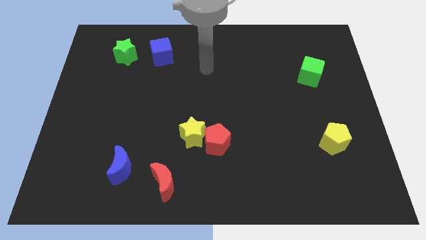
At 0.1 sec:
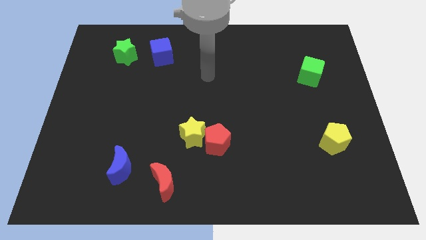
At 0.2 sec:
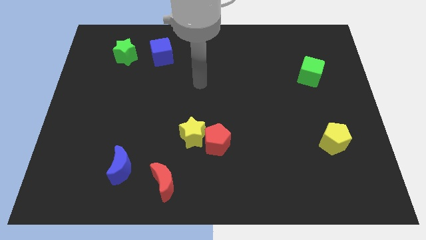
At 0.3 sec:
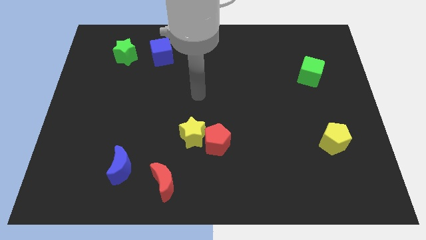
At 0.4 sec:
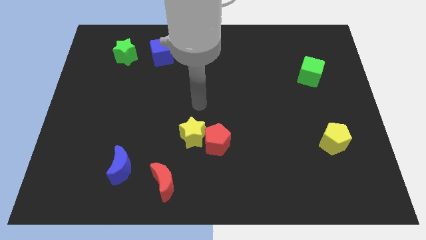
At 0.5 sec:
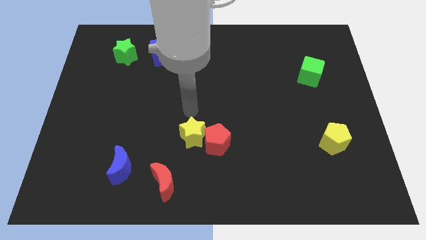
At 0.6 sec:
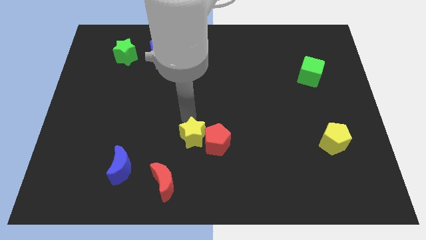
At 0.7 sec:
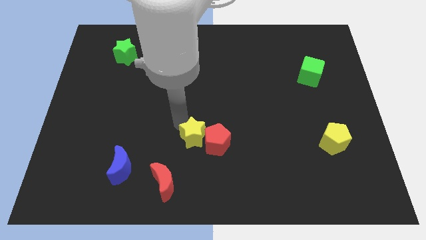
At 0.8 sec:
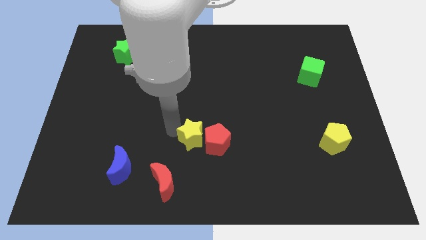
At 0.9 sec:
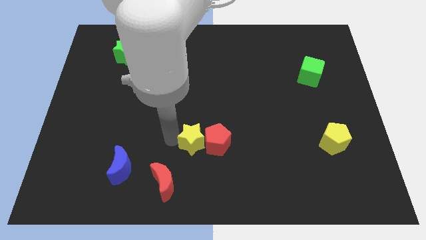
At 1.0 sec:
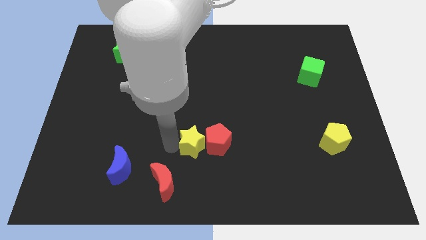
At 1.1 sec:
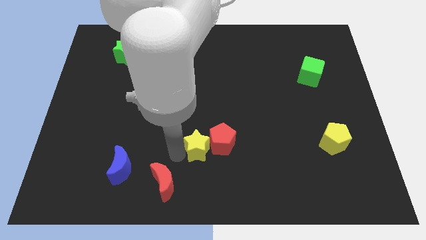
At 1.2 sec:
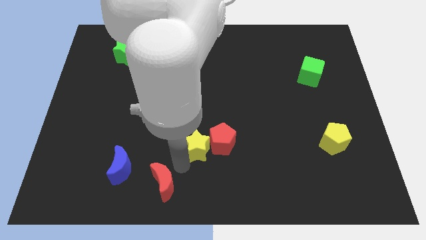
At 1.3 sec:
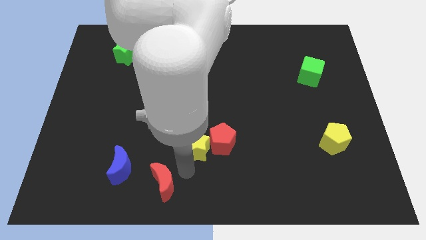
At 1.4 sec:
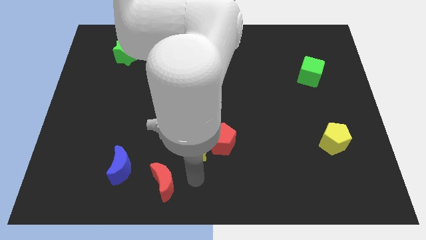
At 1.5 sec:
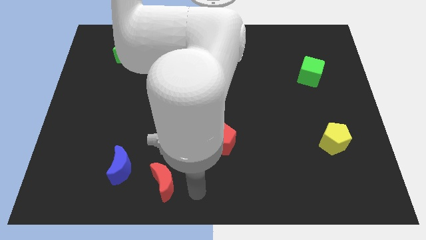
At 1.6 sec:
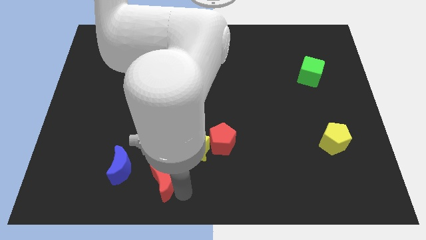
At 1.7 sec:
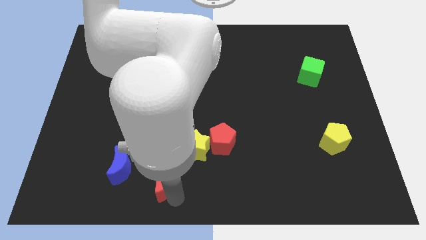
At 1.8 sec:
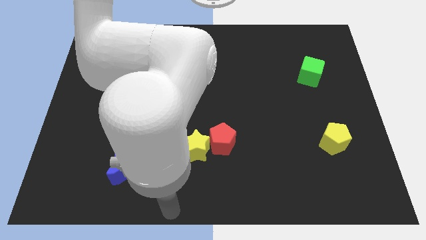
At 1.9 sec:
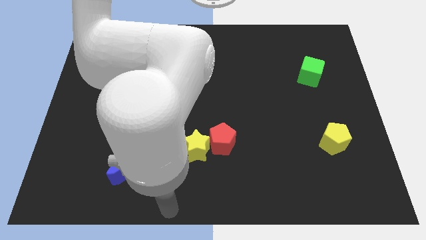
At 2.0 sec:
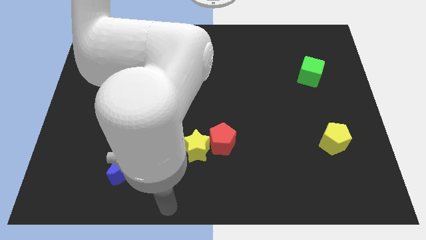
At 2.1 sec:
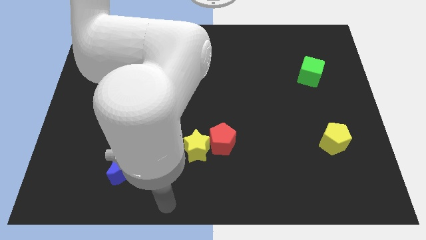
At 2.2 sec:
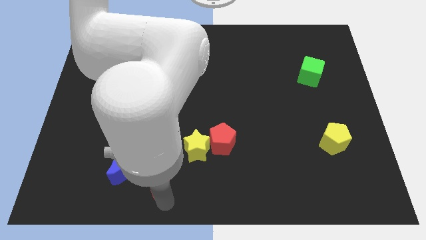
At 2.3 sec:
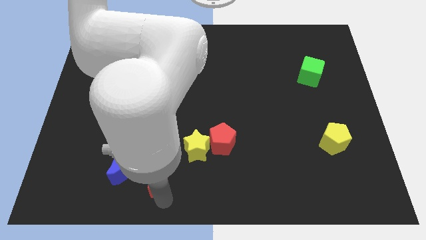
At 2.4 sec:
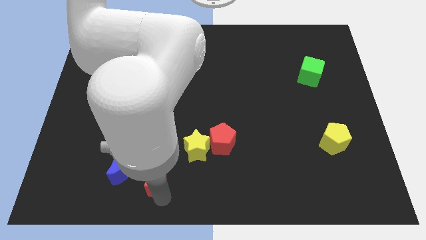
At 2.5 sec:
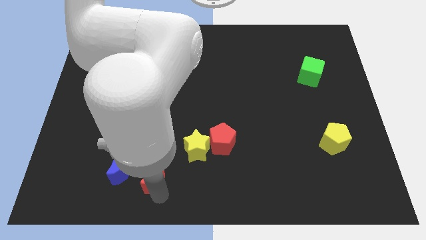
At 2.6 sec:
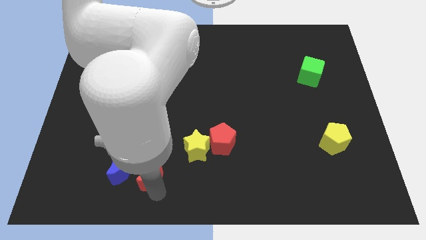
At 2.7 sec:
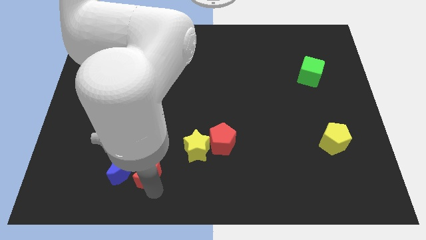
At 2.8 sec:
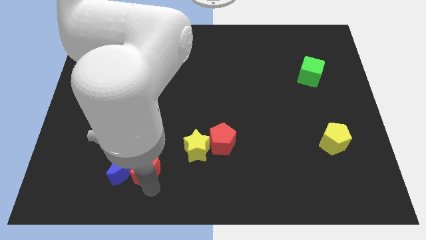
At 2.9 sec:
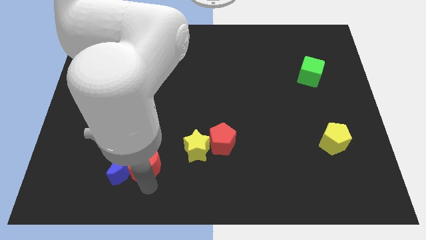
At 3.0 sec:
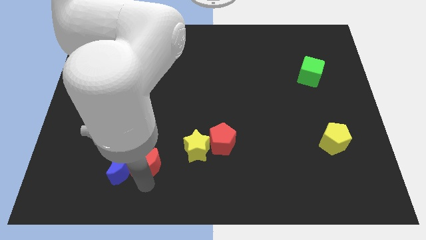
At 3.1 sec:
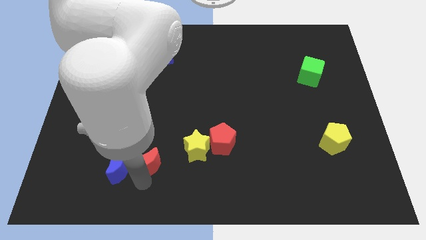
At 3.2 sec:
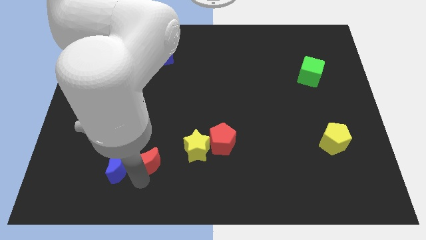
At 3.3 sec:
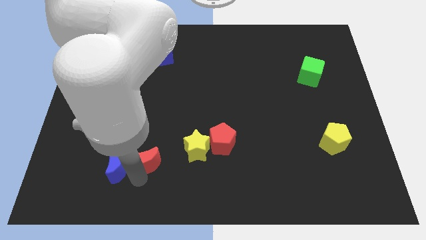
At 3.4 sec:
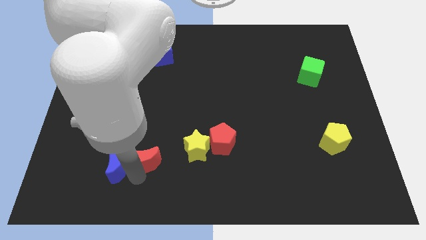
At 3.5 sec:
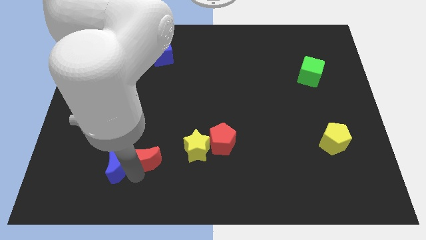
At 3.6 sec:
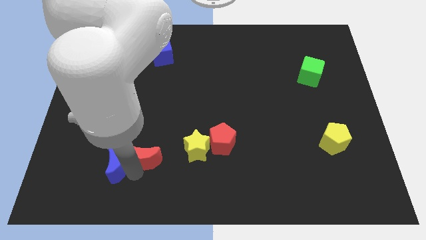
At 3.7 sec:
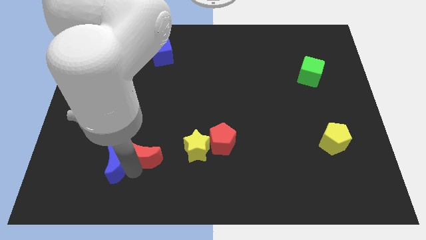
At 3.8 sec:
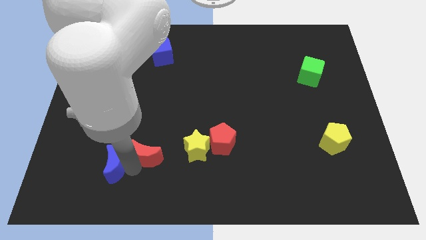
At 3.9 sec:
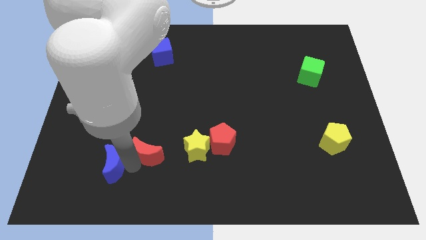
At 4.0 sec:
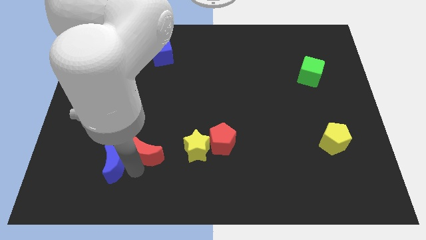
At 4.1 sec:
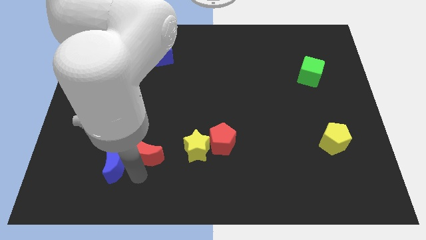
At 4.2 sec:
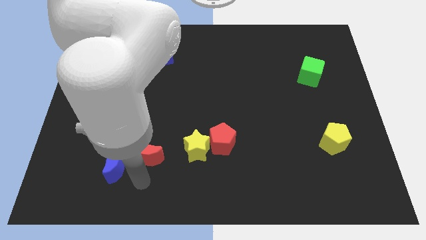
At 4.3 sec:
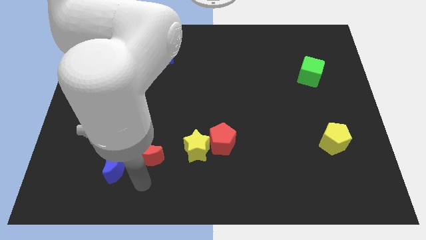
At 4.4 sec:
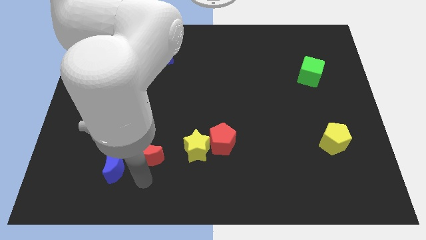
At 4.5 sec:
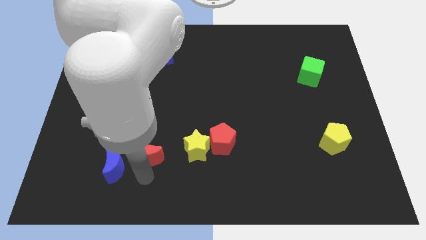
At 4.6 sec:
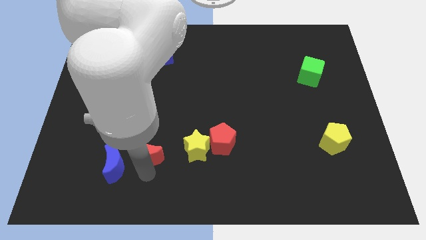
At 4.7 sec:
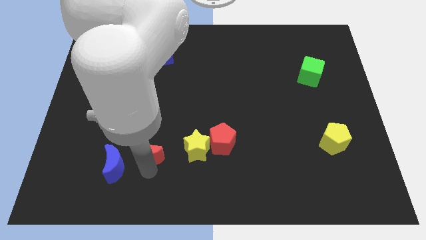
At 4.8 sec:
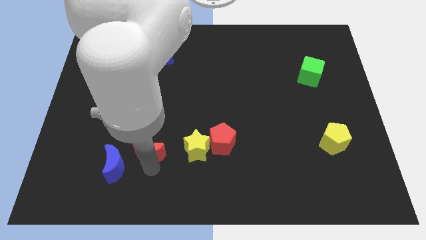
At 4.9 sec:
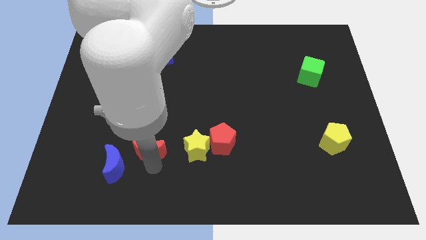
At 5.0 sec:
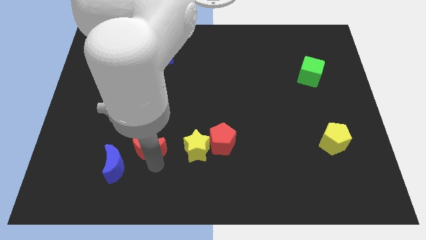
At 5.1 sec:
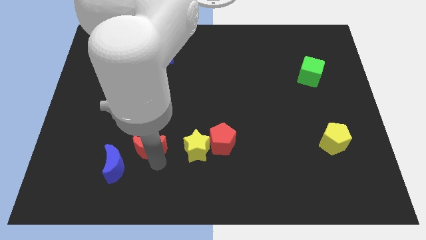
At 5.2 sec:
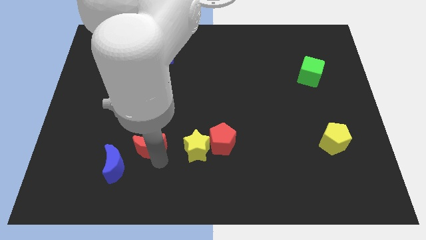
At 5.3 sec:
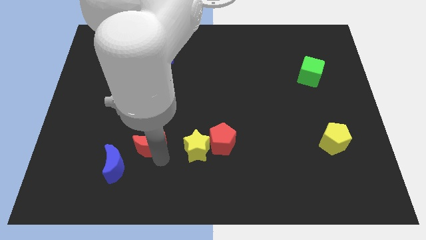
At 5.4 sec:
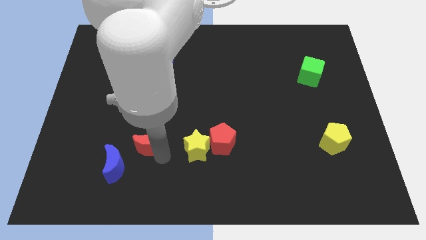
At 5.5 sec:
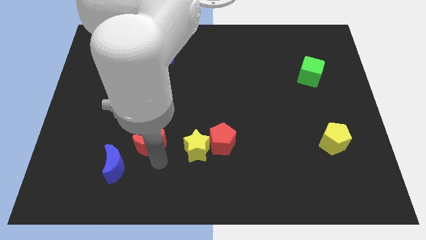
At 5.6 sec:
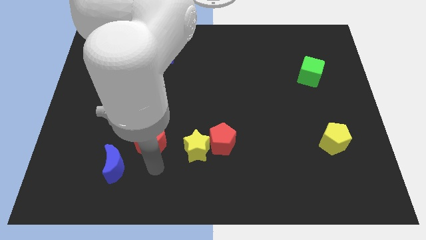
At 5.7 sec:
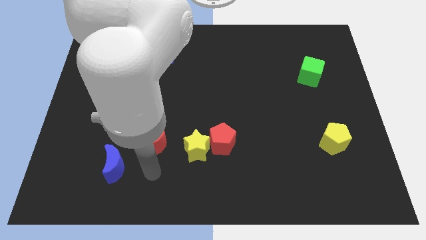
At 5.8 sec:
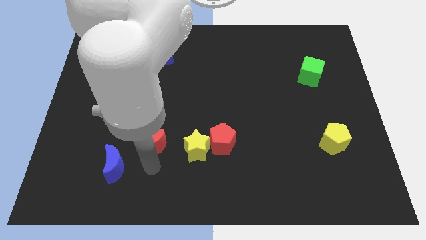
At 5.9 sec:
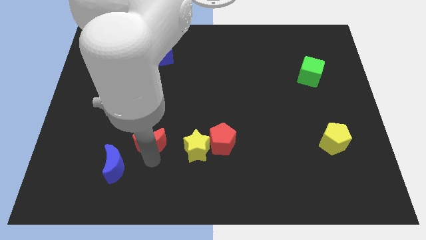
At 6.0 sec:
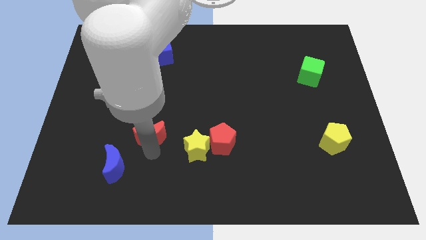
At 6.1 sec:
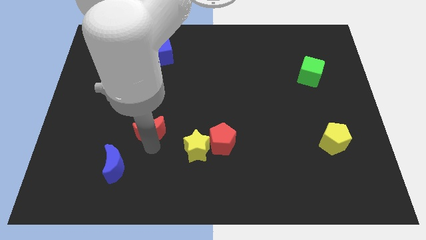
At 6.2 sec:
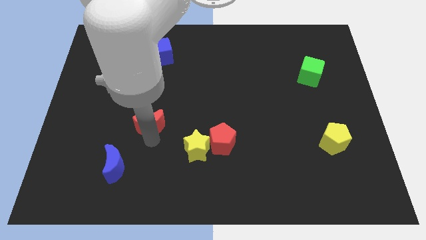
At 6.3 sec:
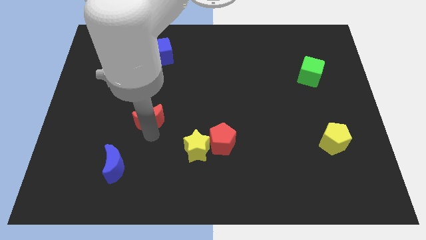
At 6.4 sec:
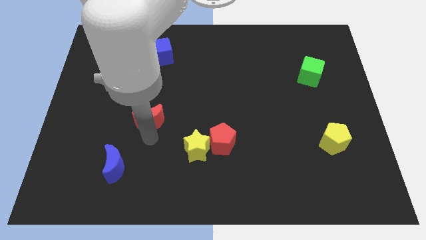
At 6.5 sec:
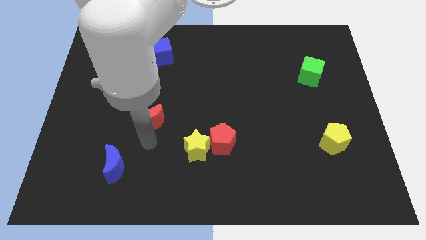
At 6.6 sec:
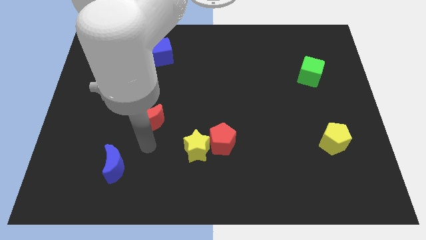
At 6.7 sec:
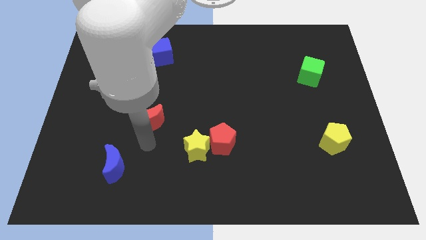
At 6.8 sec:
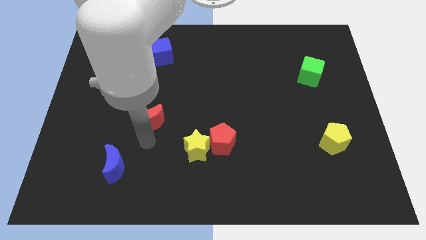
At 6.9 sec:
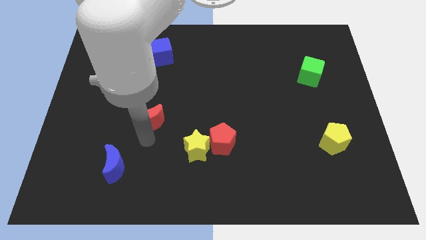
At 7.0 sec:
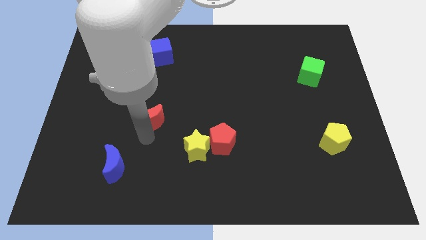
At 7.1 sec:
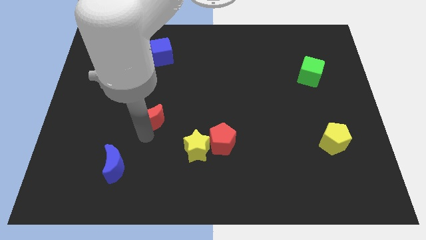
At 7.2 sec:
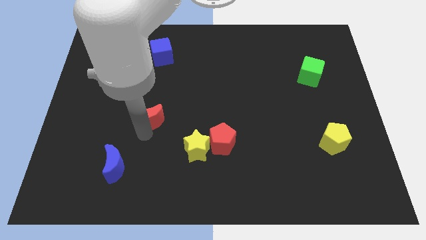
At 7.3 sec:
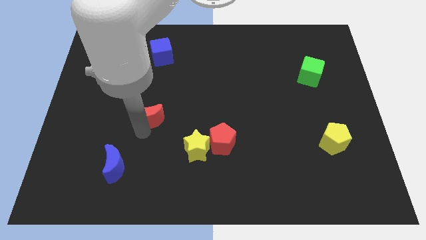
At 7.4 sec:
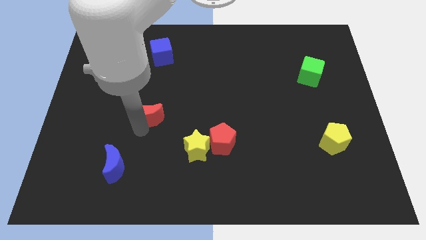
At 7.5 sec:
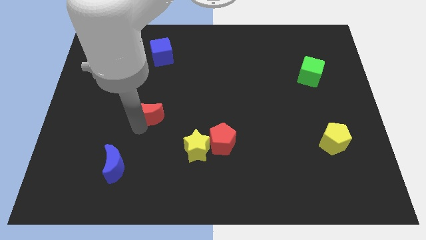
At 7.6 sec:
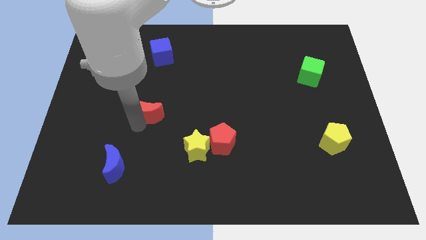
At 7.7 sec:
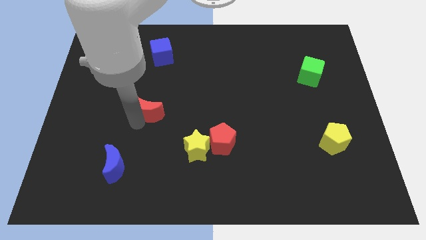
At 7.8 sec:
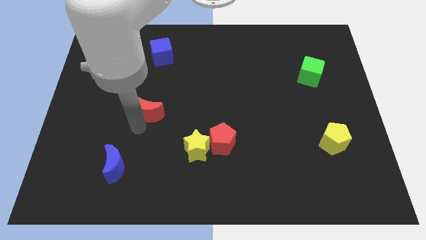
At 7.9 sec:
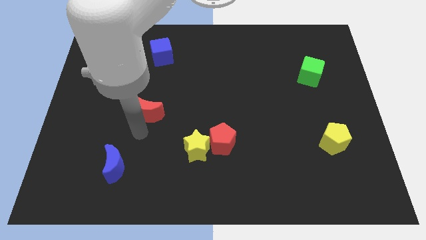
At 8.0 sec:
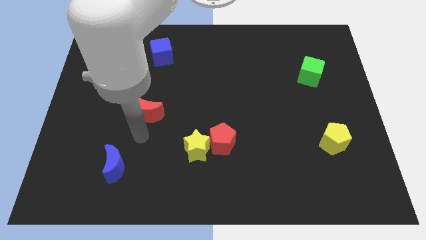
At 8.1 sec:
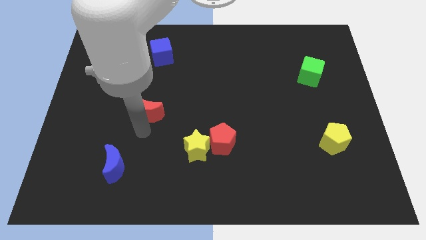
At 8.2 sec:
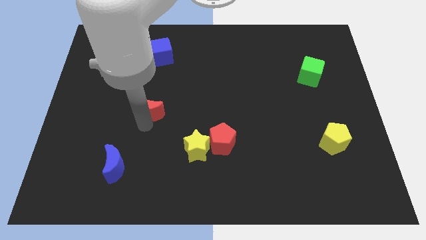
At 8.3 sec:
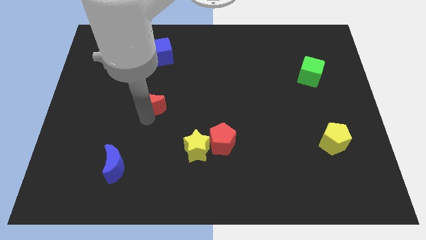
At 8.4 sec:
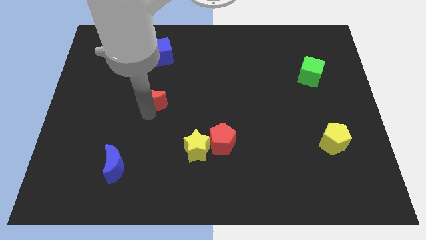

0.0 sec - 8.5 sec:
put the red moon to the bottom side of the blue cube

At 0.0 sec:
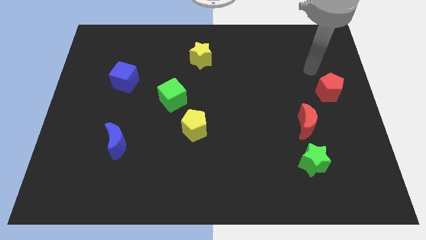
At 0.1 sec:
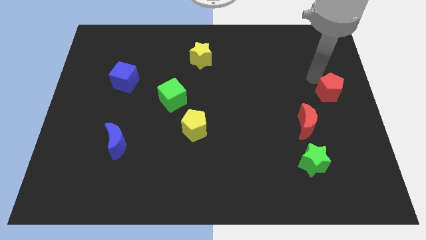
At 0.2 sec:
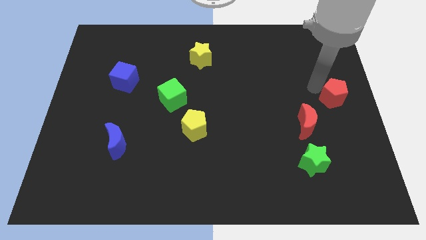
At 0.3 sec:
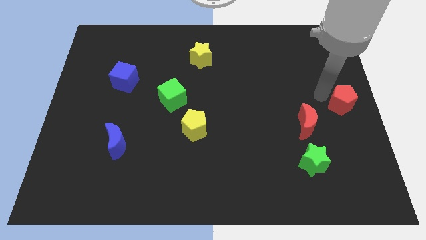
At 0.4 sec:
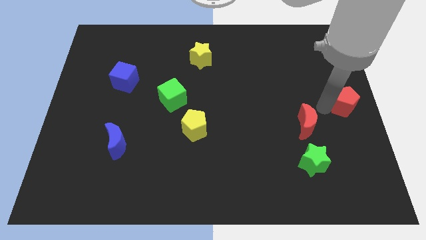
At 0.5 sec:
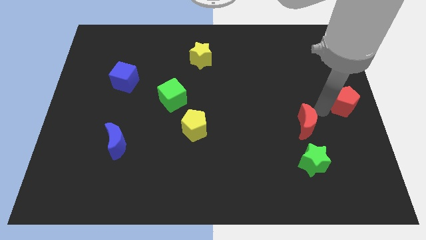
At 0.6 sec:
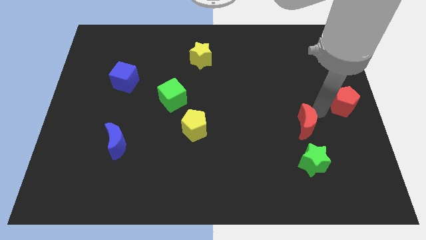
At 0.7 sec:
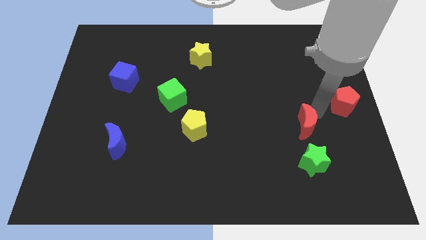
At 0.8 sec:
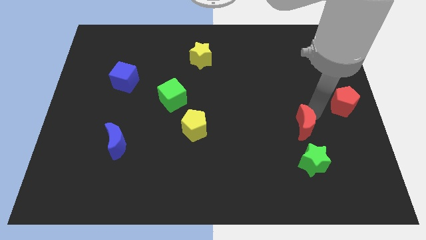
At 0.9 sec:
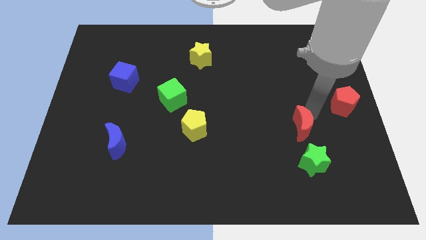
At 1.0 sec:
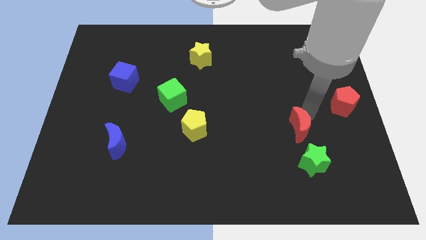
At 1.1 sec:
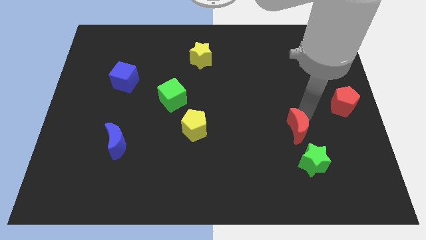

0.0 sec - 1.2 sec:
move the red moon to the top left side of the green star
